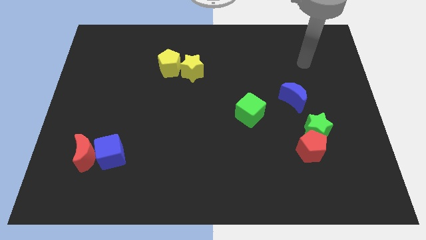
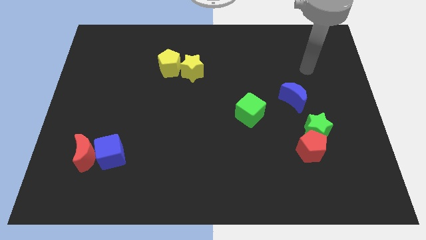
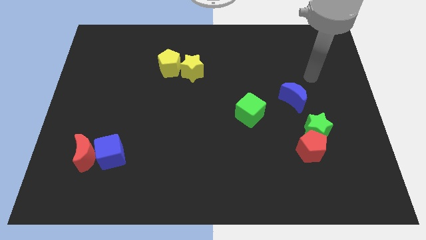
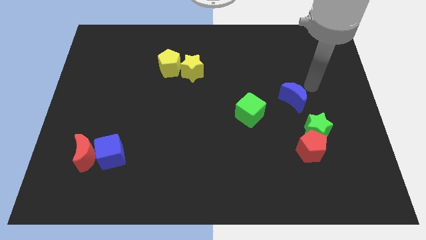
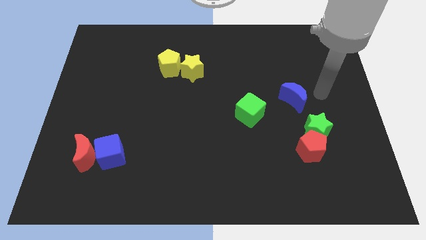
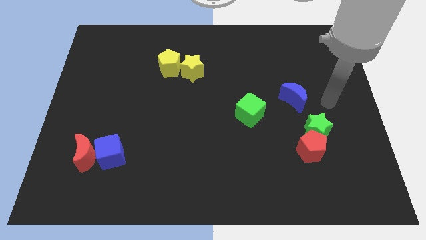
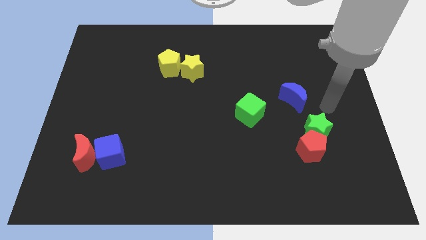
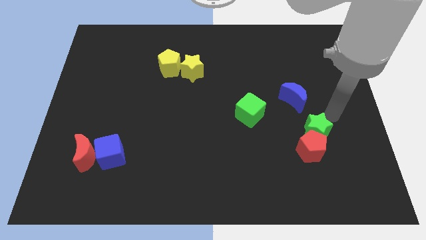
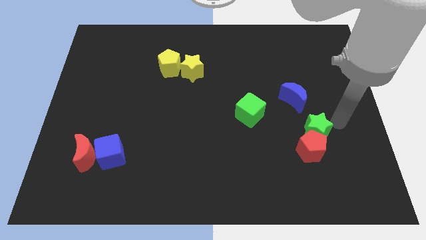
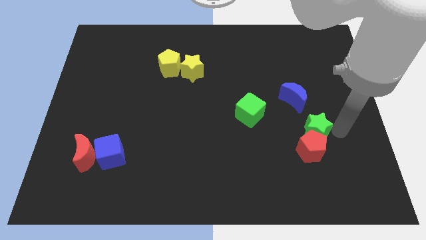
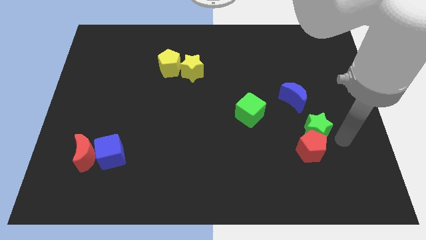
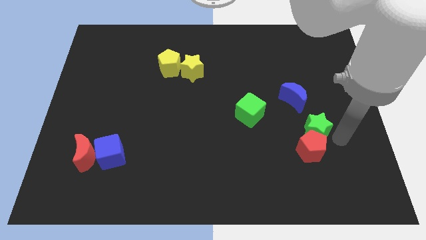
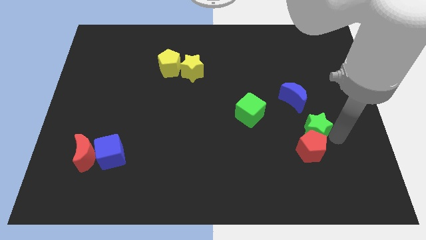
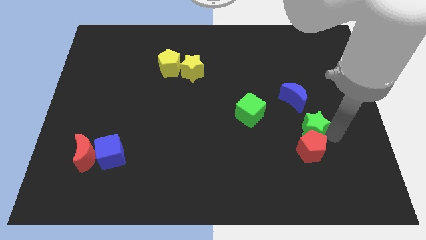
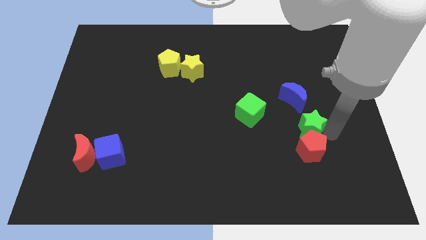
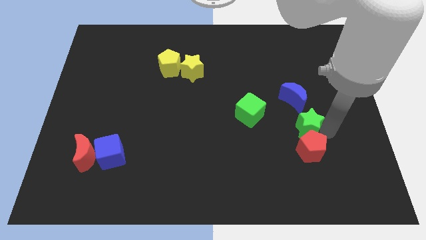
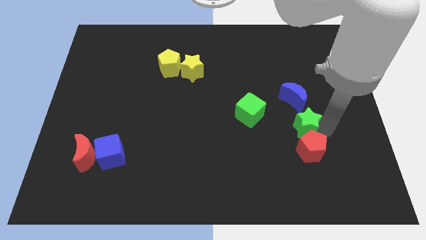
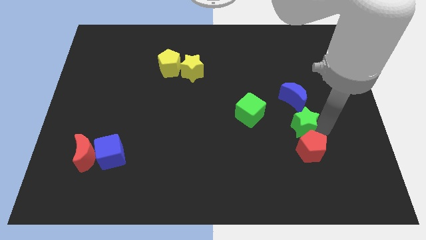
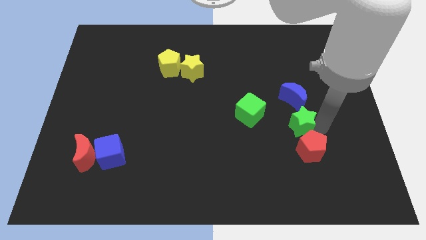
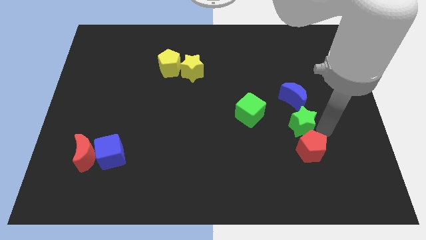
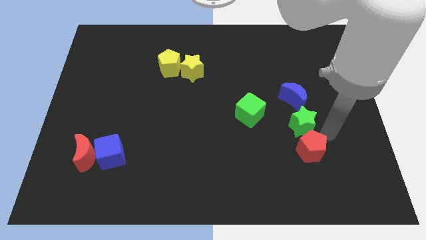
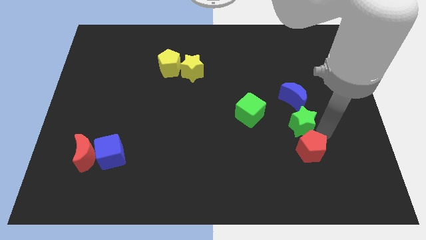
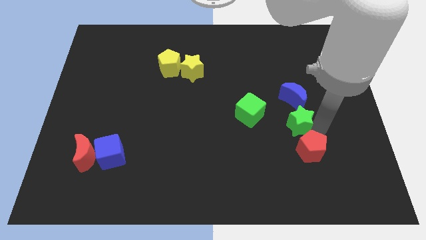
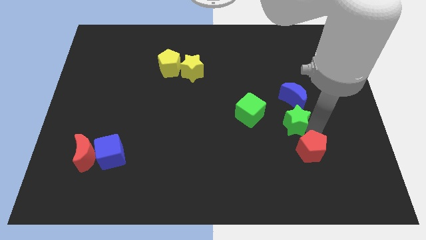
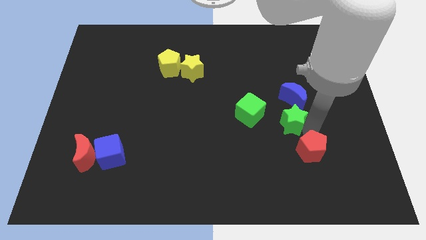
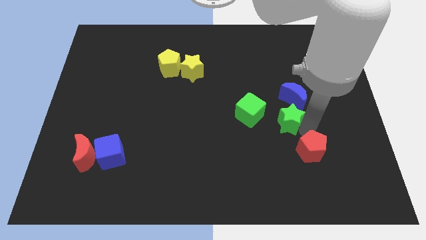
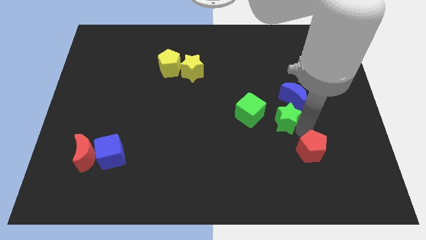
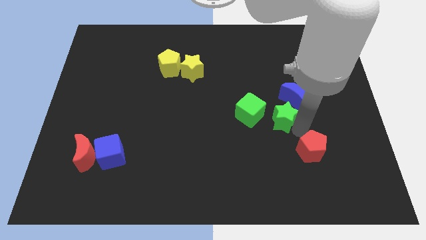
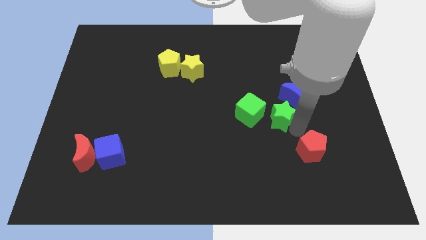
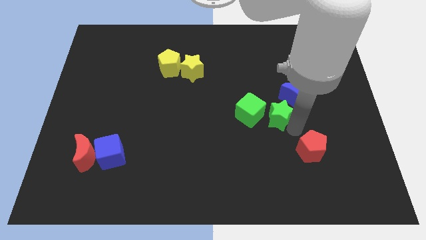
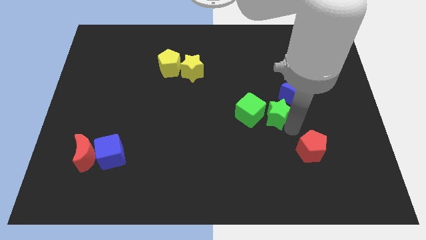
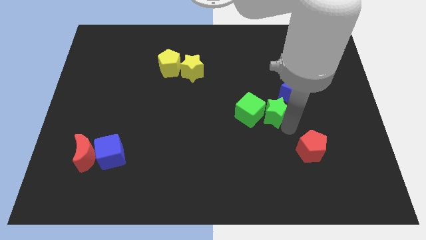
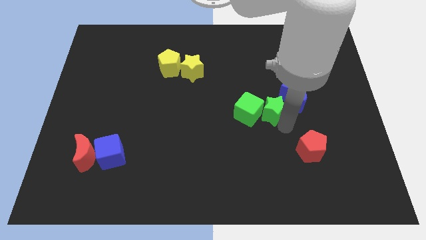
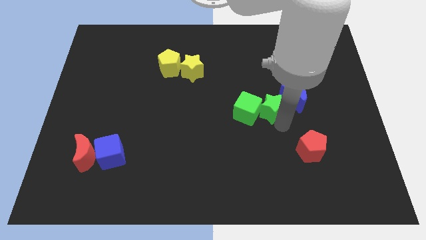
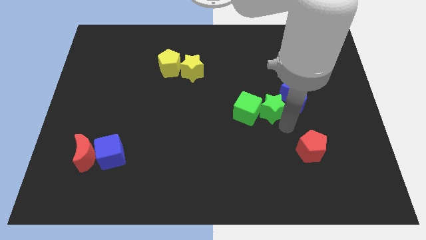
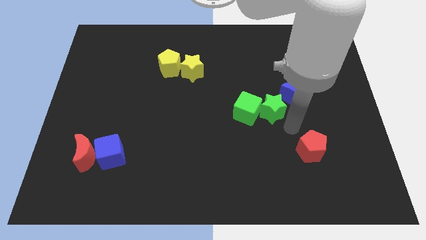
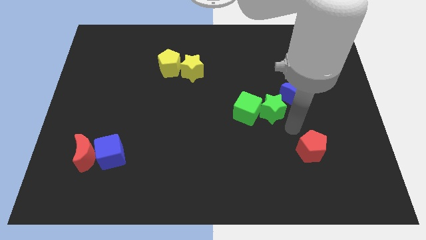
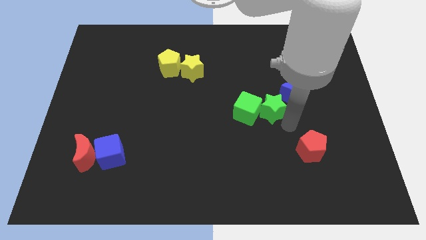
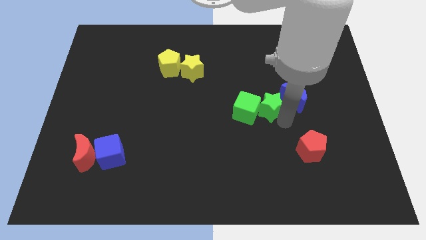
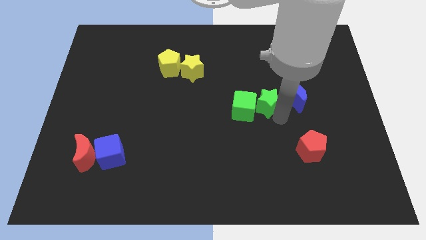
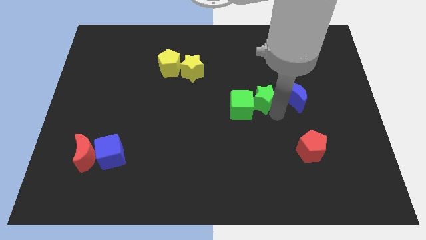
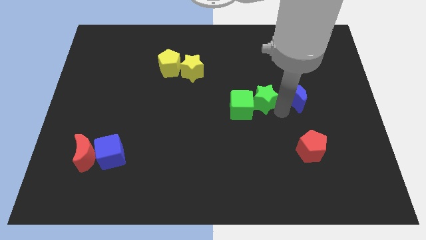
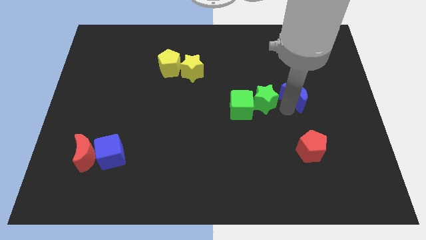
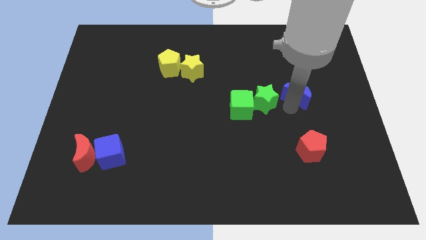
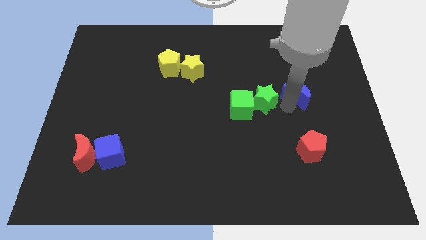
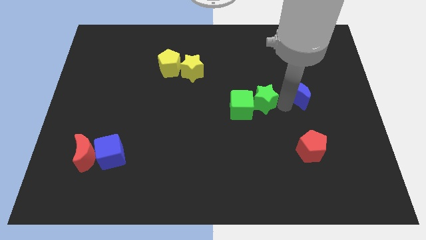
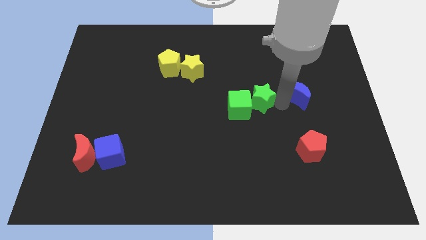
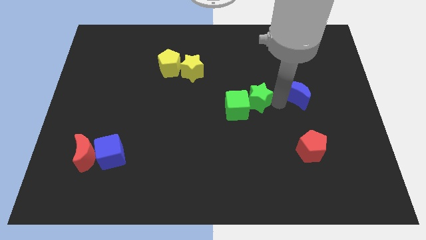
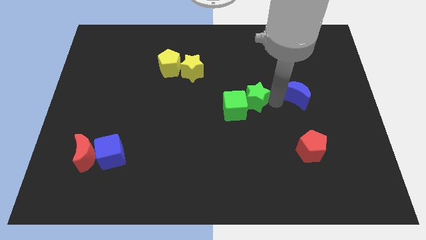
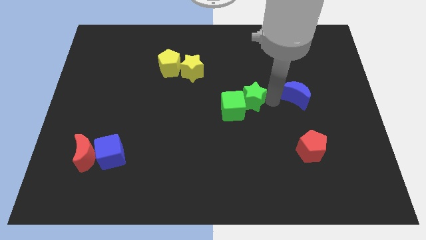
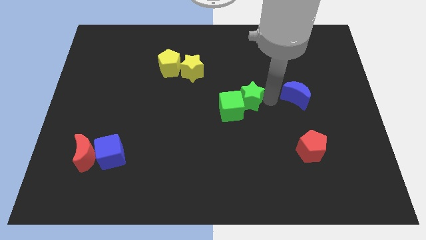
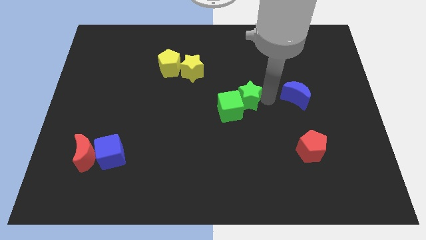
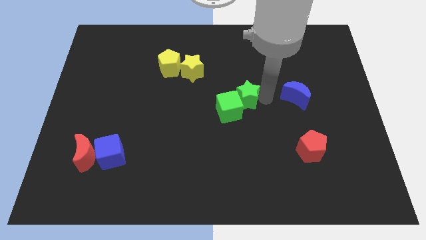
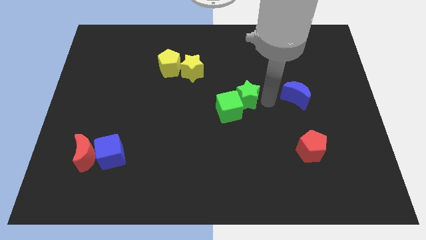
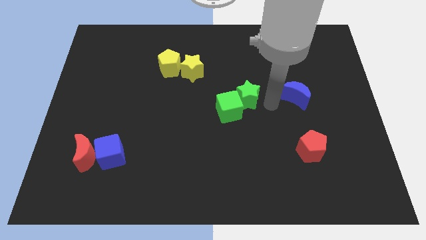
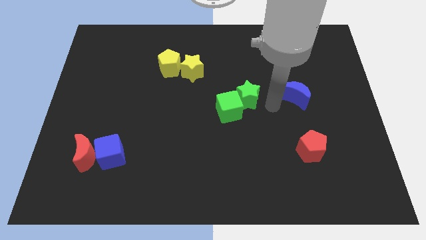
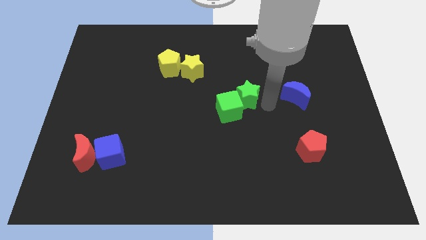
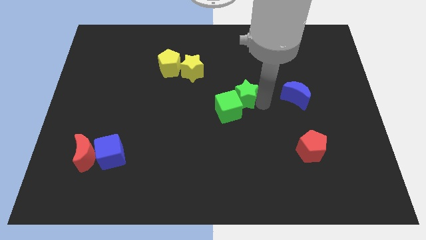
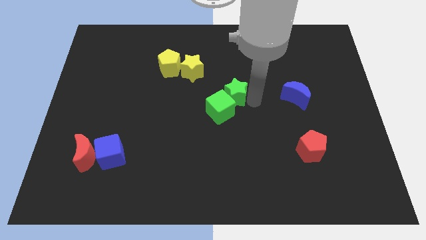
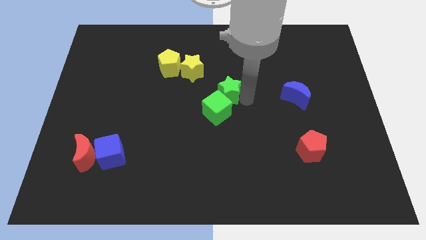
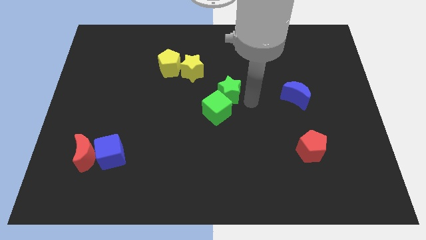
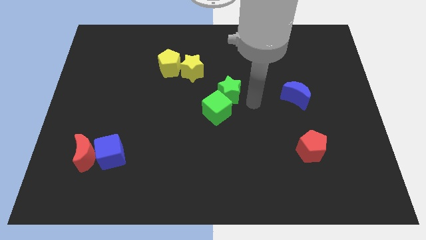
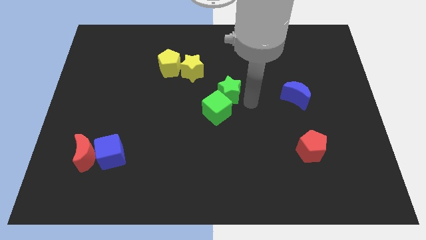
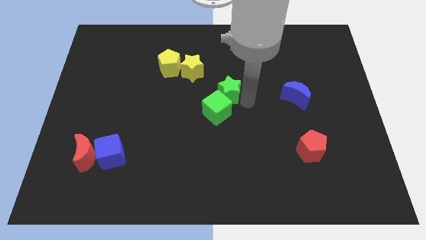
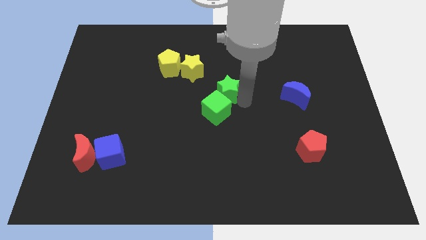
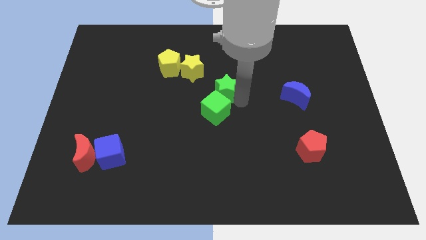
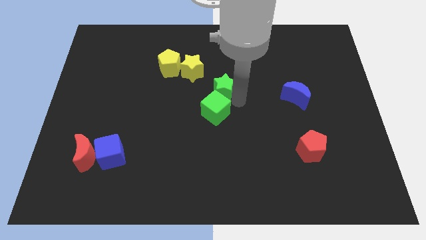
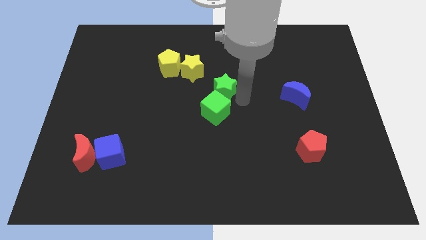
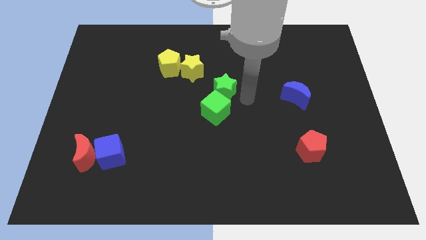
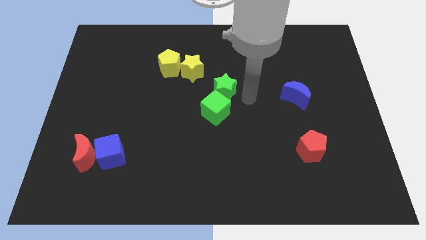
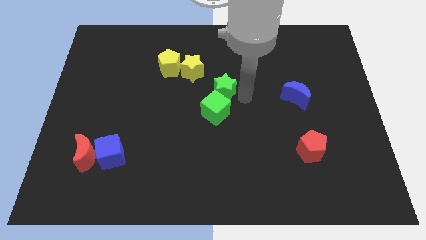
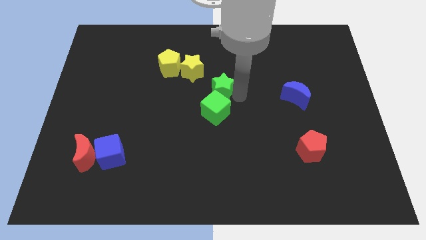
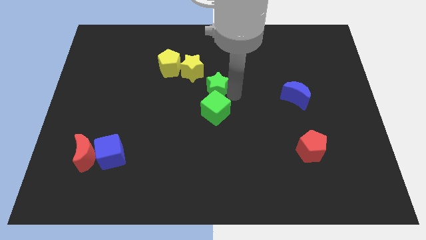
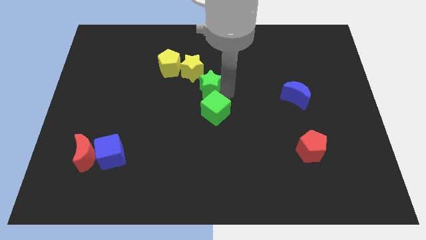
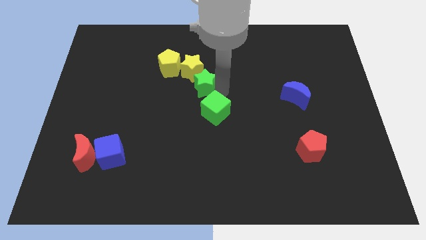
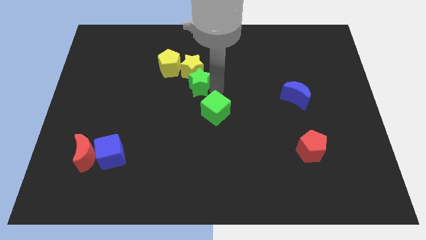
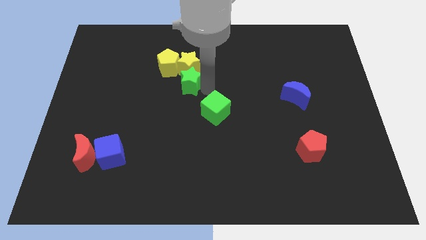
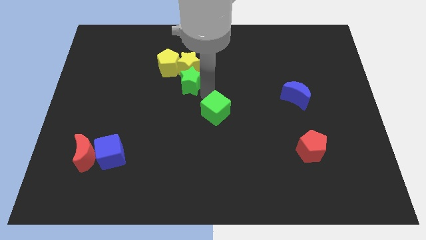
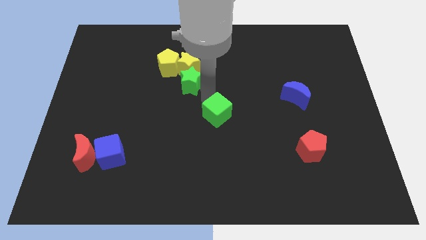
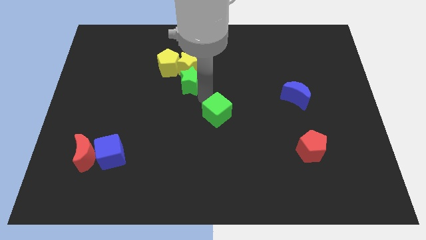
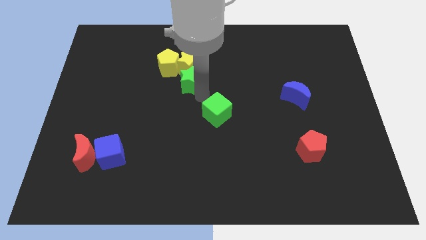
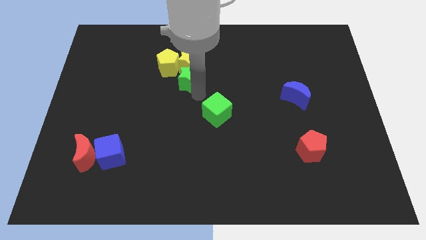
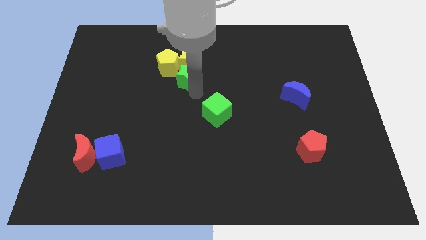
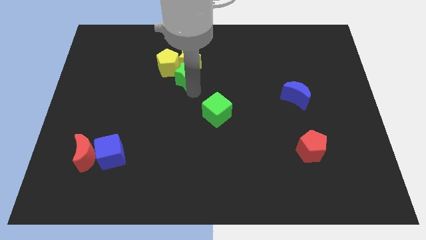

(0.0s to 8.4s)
put the green star close to the yellow pentagon
